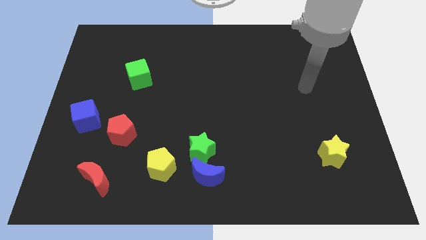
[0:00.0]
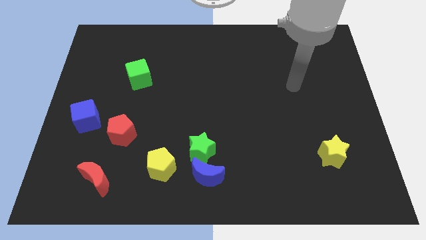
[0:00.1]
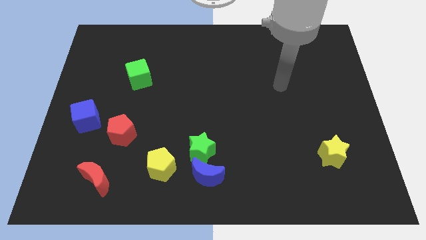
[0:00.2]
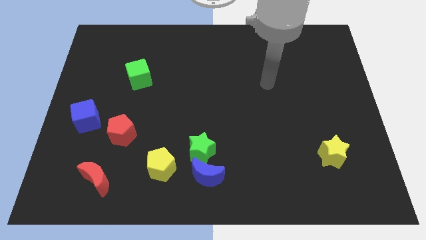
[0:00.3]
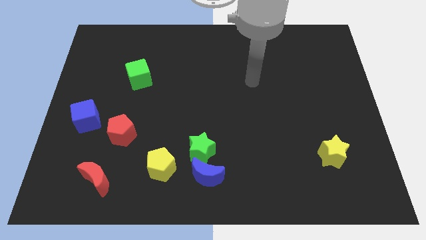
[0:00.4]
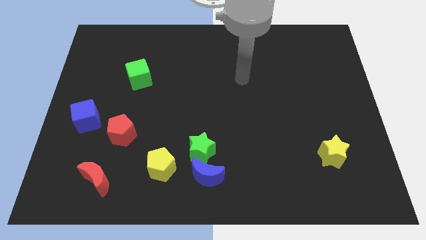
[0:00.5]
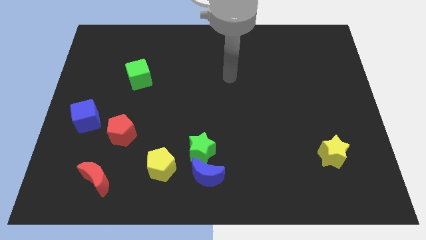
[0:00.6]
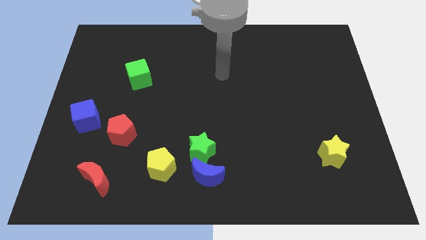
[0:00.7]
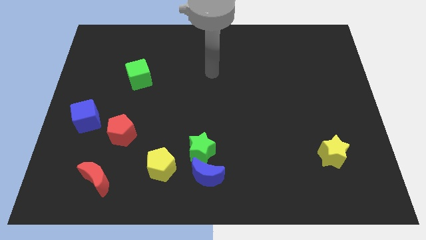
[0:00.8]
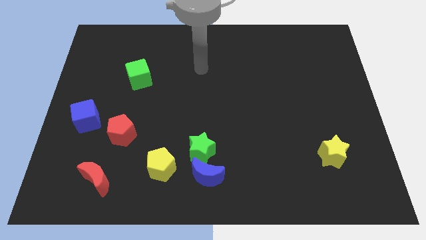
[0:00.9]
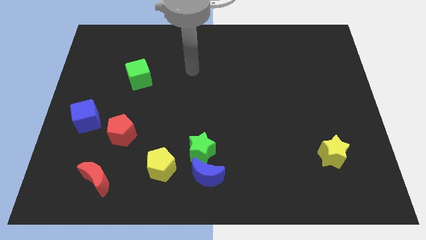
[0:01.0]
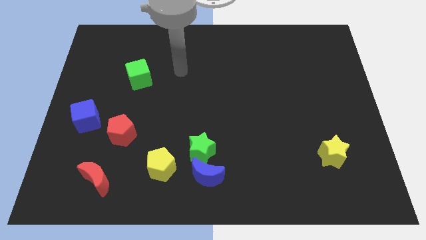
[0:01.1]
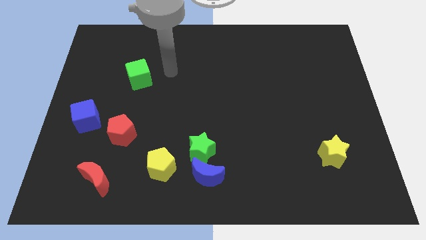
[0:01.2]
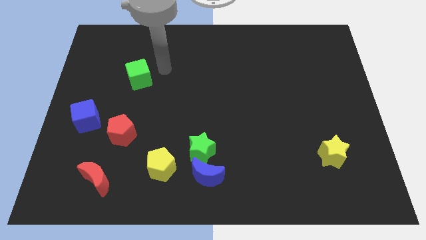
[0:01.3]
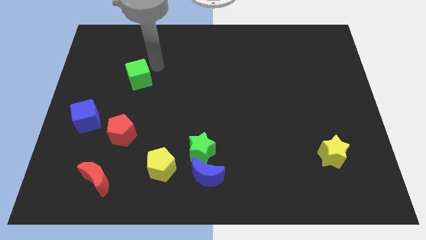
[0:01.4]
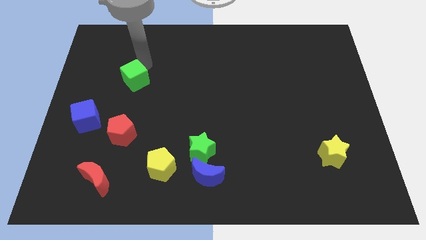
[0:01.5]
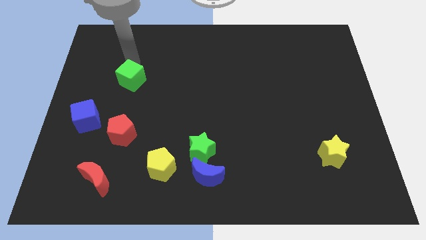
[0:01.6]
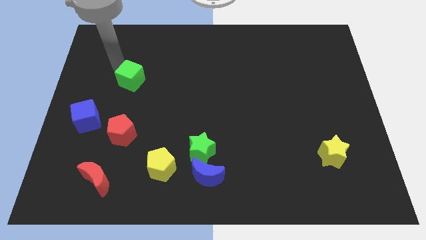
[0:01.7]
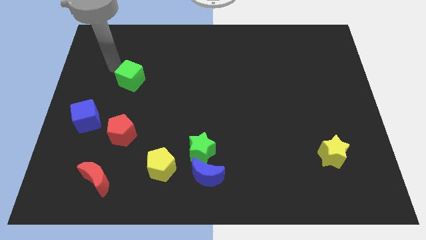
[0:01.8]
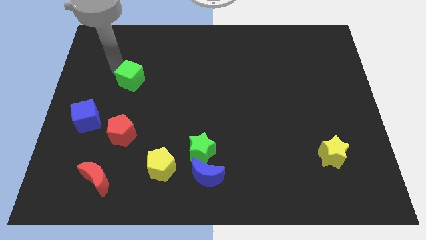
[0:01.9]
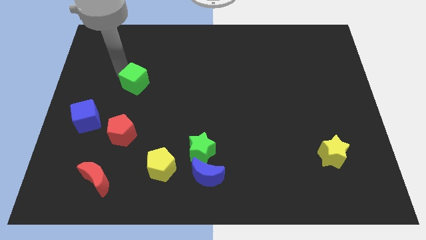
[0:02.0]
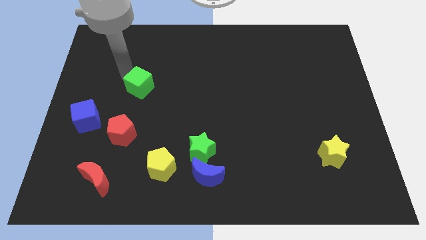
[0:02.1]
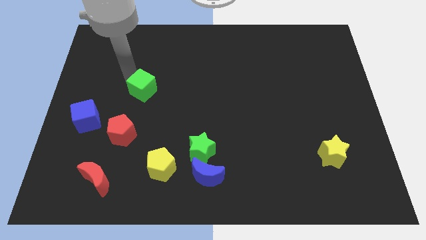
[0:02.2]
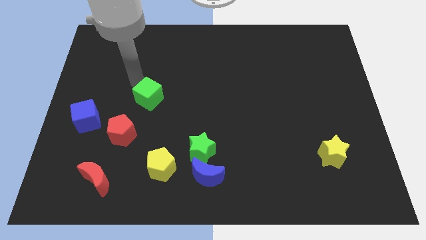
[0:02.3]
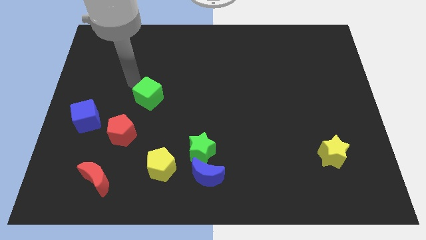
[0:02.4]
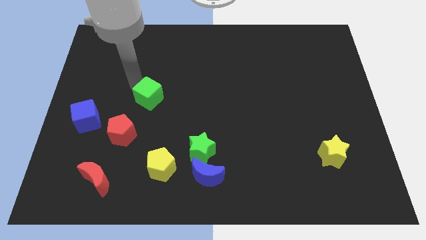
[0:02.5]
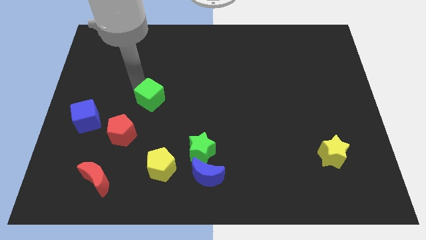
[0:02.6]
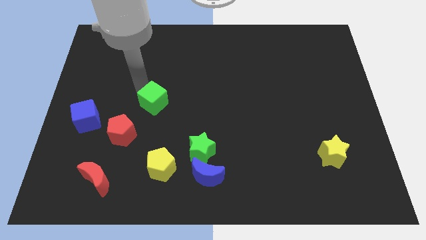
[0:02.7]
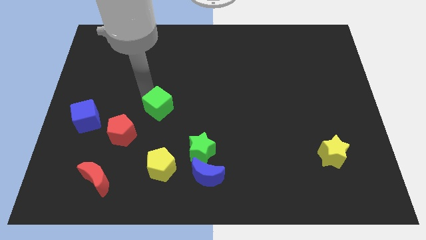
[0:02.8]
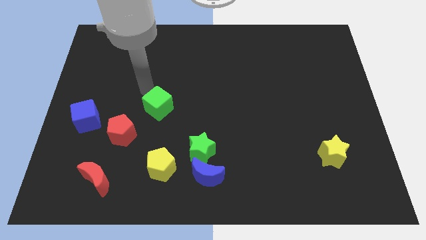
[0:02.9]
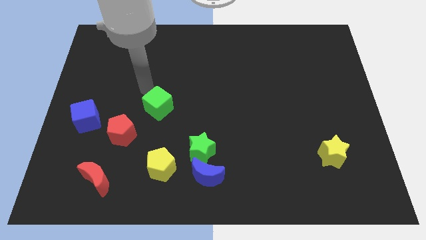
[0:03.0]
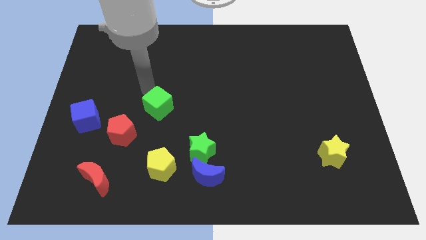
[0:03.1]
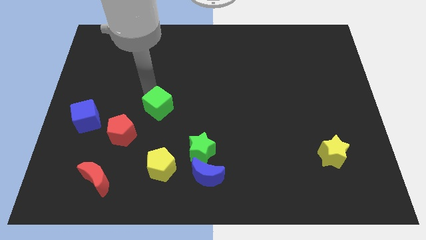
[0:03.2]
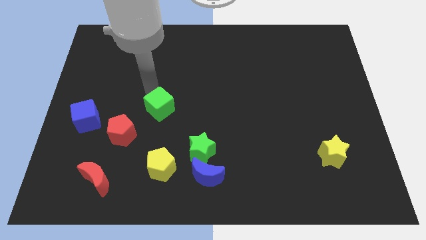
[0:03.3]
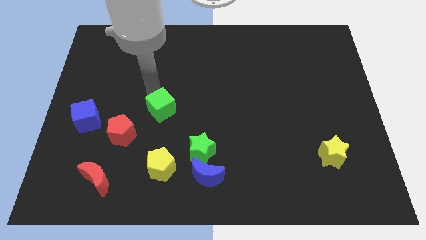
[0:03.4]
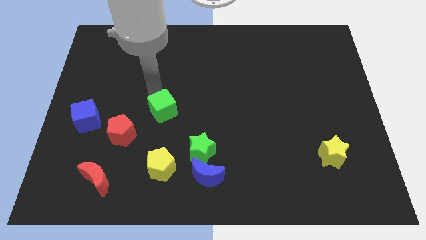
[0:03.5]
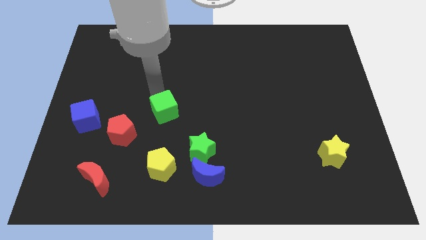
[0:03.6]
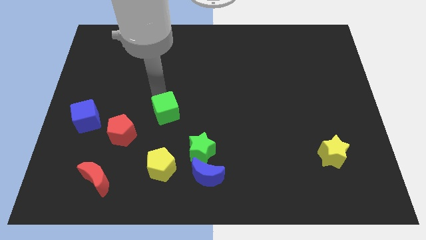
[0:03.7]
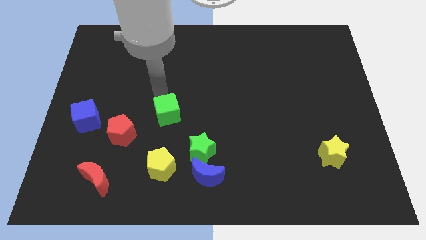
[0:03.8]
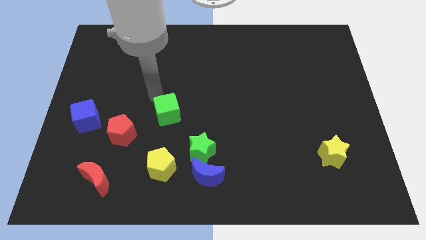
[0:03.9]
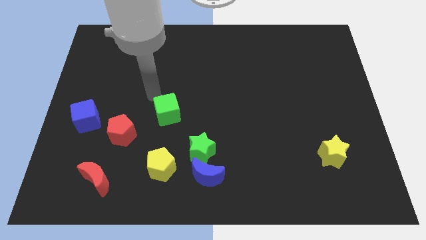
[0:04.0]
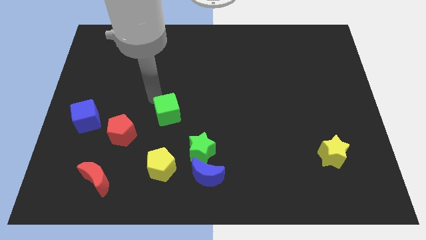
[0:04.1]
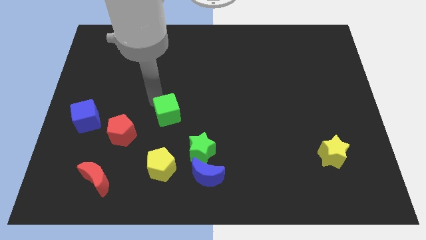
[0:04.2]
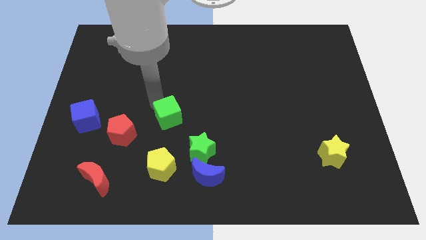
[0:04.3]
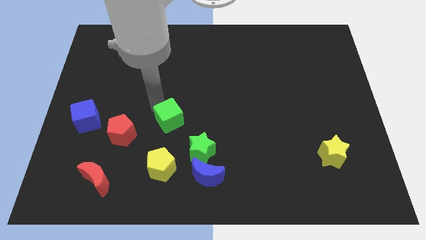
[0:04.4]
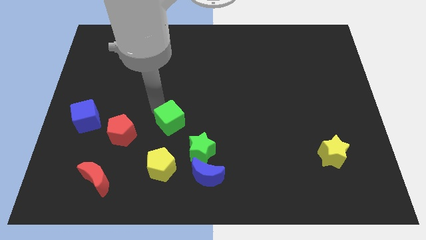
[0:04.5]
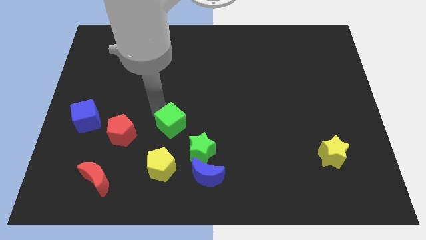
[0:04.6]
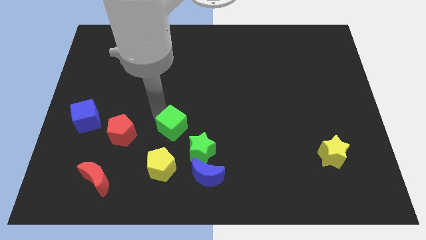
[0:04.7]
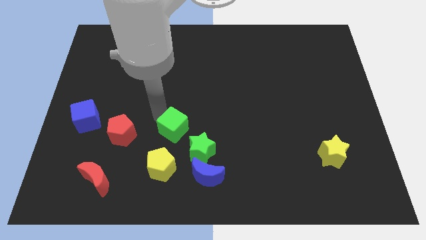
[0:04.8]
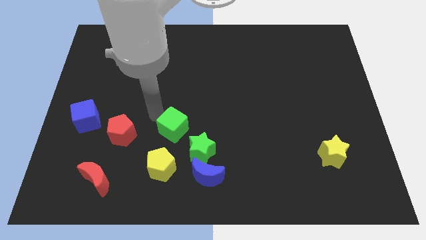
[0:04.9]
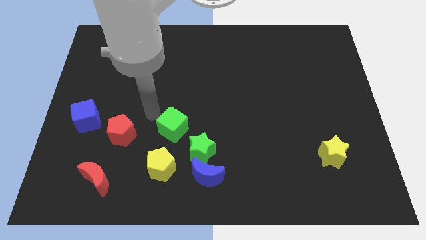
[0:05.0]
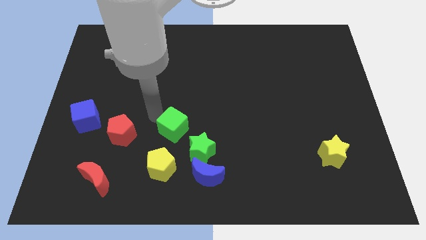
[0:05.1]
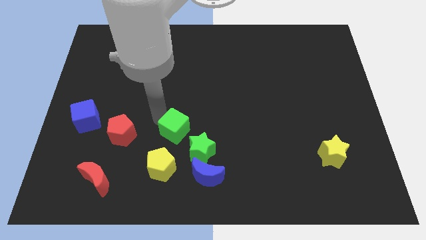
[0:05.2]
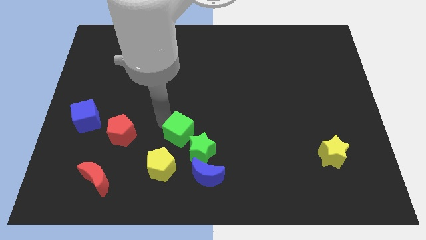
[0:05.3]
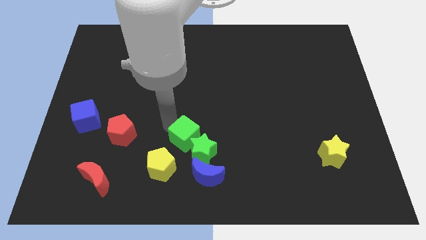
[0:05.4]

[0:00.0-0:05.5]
move the green cube to the green star

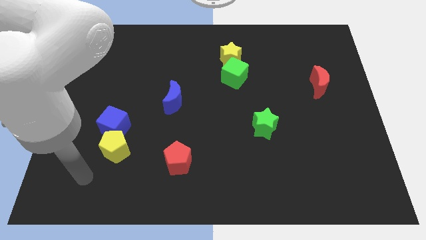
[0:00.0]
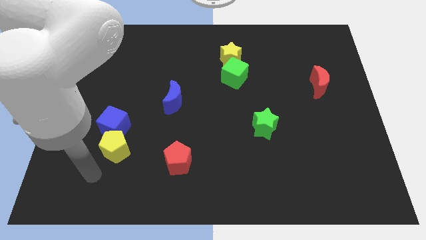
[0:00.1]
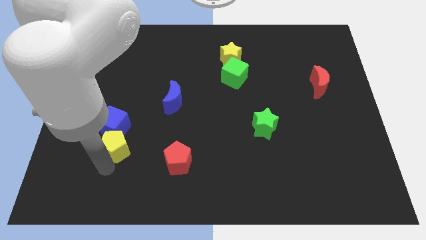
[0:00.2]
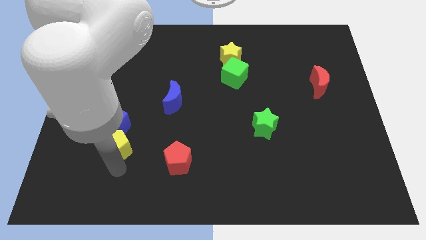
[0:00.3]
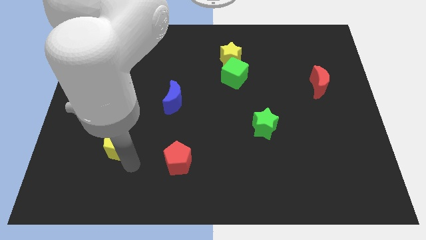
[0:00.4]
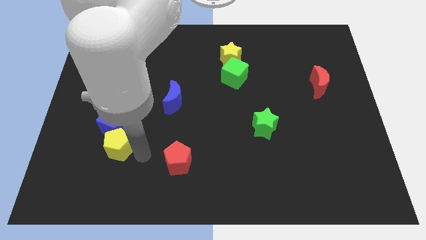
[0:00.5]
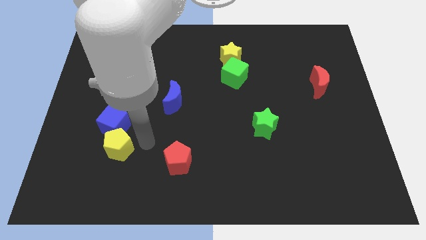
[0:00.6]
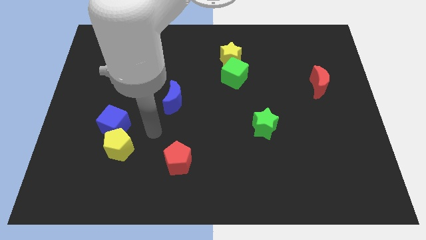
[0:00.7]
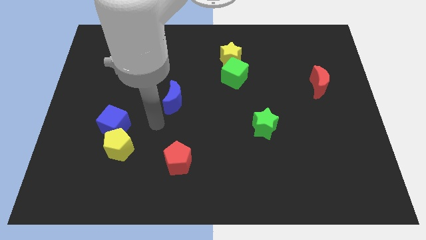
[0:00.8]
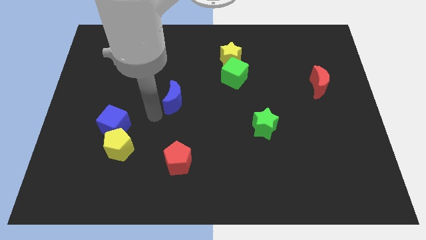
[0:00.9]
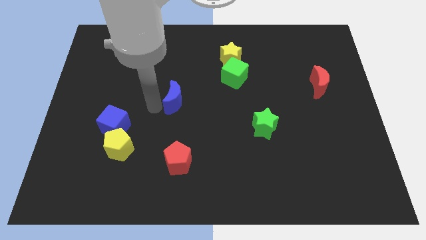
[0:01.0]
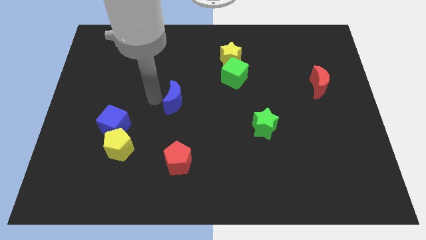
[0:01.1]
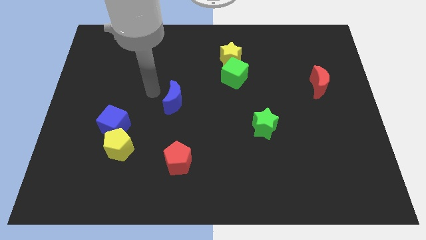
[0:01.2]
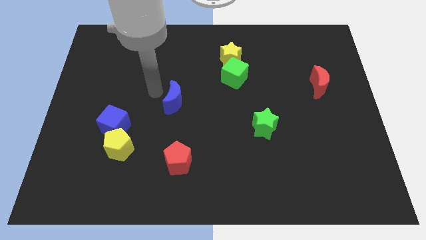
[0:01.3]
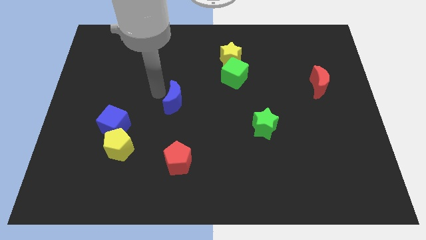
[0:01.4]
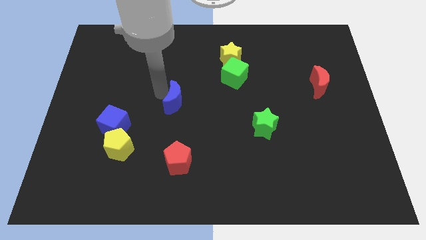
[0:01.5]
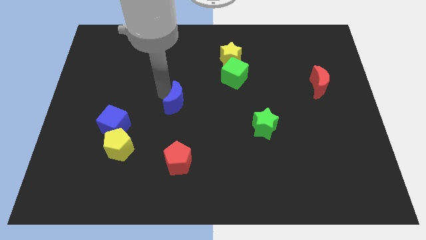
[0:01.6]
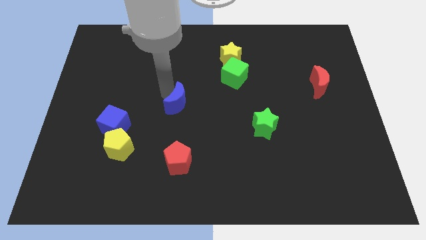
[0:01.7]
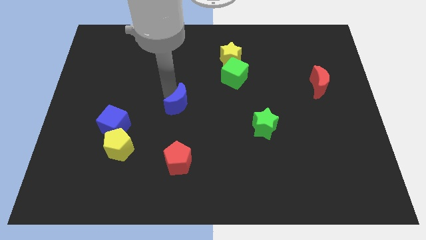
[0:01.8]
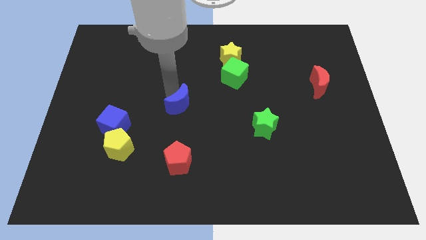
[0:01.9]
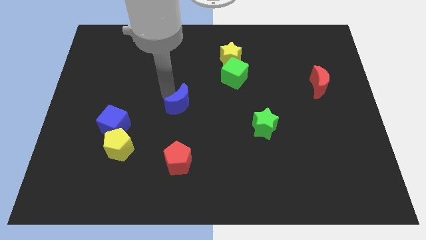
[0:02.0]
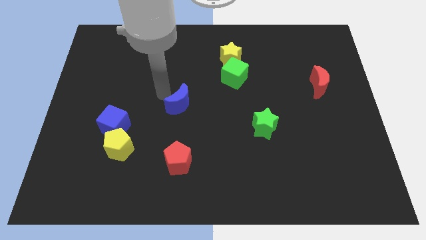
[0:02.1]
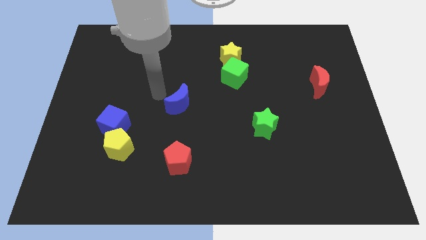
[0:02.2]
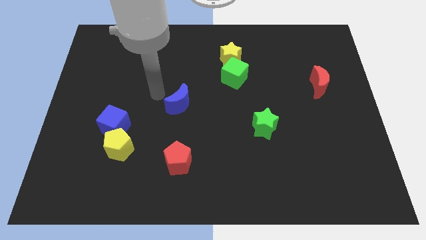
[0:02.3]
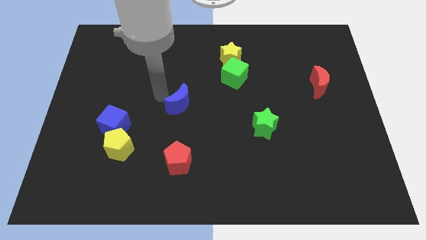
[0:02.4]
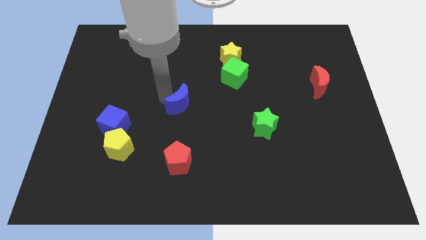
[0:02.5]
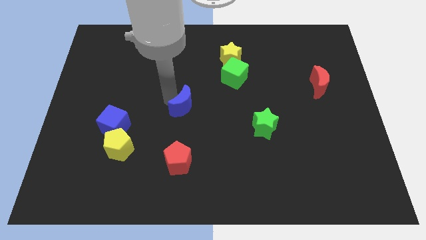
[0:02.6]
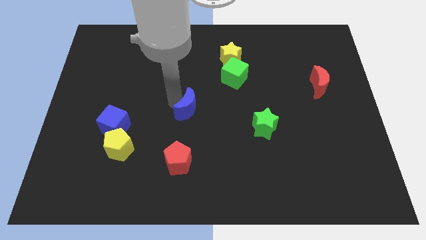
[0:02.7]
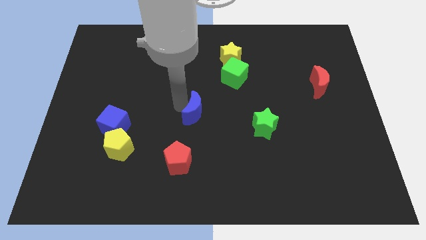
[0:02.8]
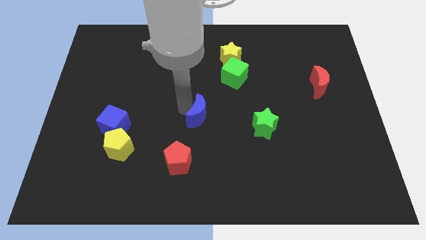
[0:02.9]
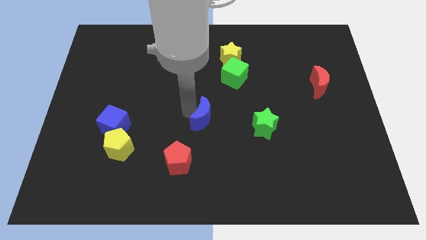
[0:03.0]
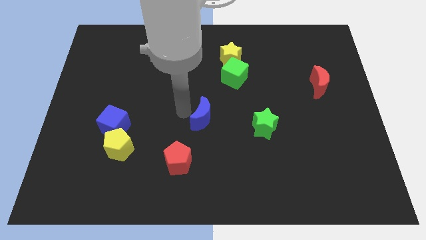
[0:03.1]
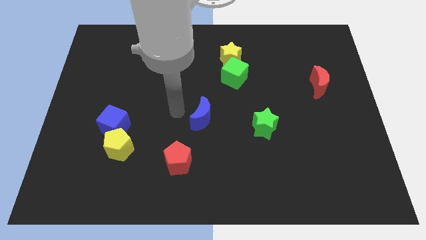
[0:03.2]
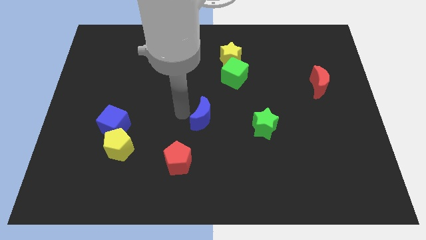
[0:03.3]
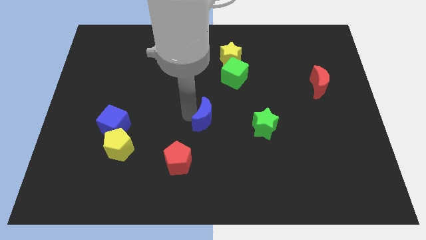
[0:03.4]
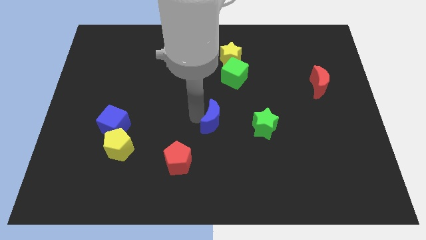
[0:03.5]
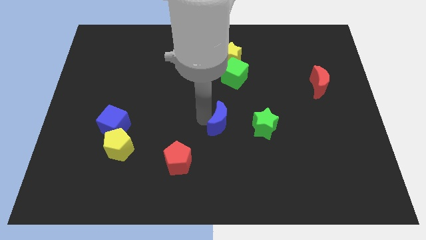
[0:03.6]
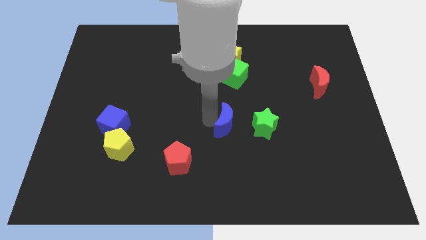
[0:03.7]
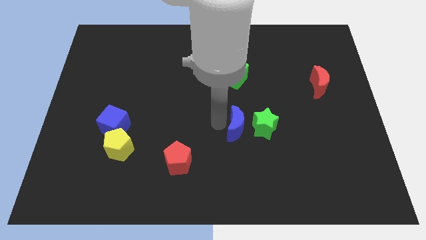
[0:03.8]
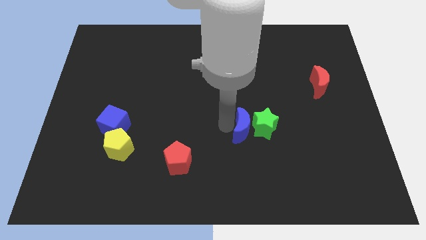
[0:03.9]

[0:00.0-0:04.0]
put the blue moon close to the green star
